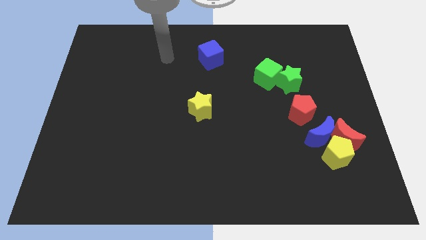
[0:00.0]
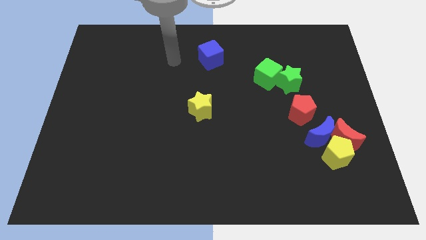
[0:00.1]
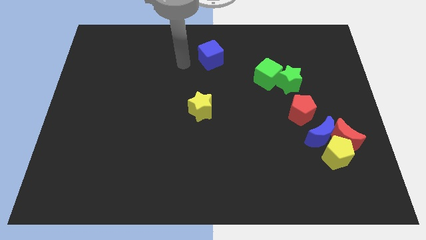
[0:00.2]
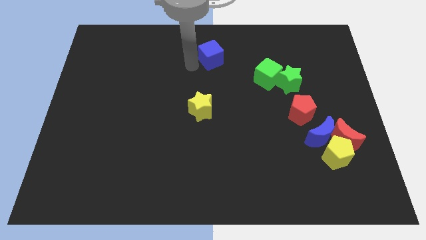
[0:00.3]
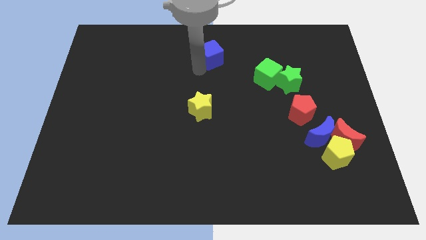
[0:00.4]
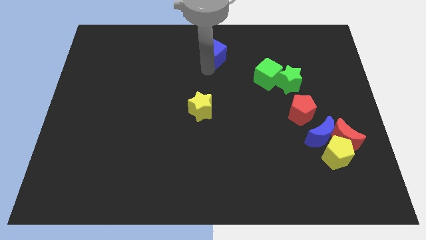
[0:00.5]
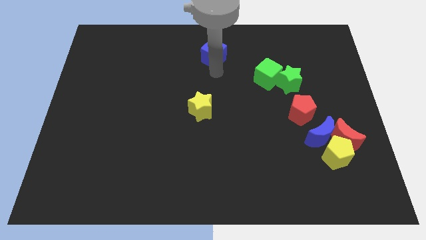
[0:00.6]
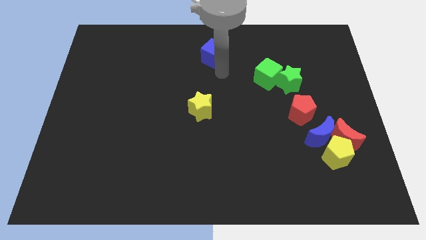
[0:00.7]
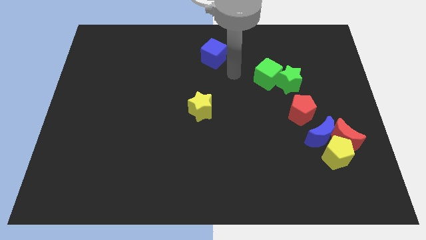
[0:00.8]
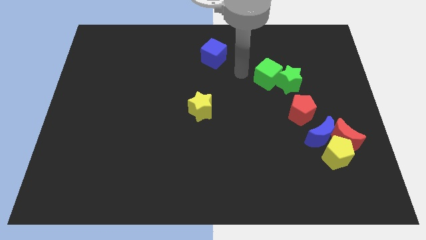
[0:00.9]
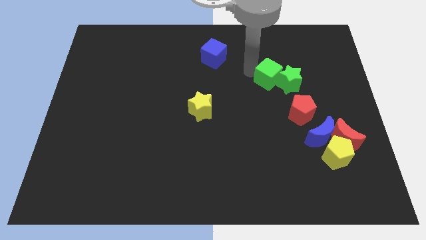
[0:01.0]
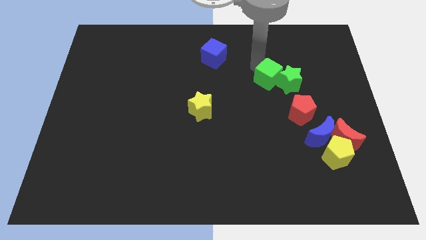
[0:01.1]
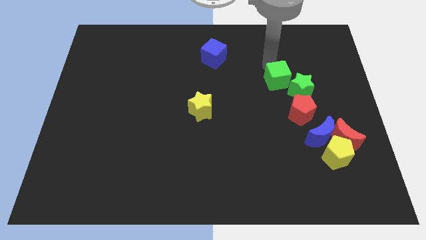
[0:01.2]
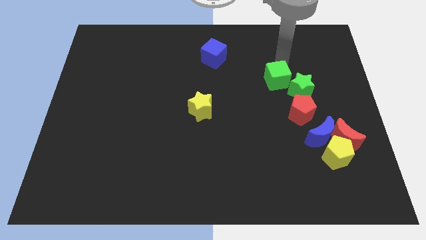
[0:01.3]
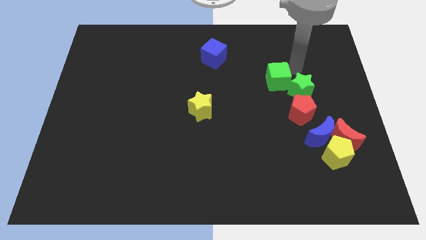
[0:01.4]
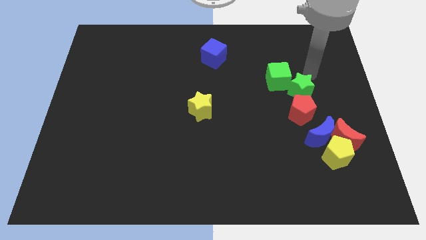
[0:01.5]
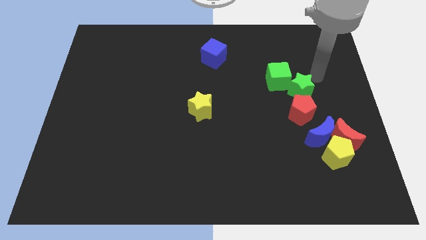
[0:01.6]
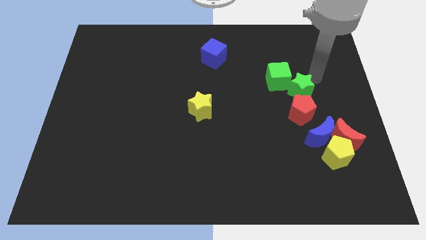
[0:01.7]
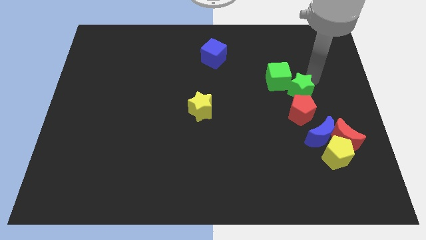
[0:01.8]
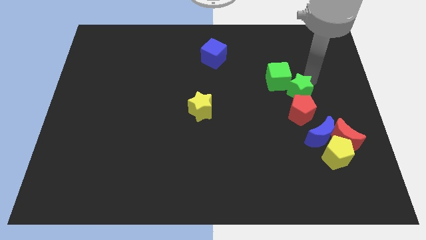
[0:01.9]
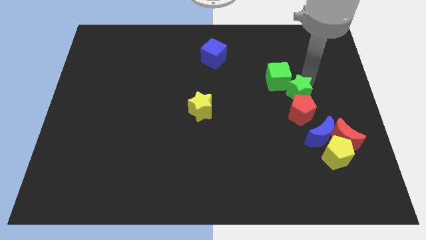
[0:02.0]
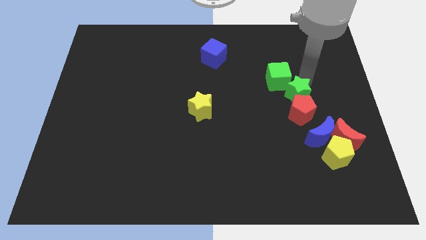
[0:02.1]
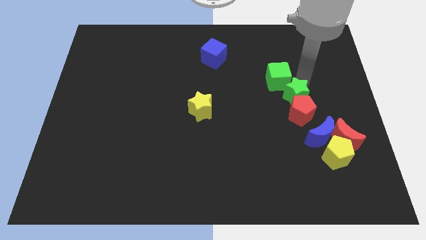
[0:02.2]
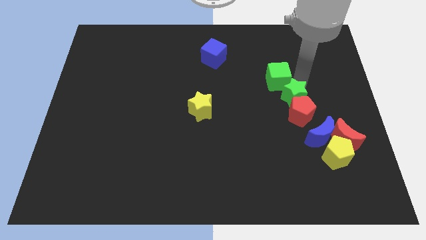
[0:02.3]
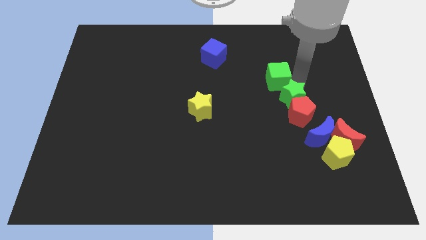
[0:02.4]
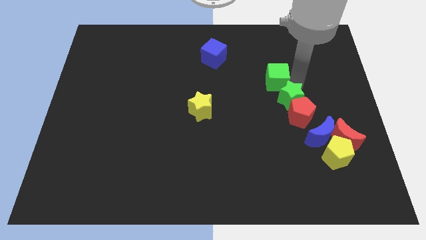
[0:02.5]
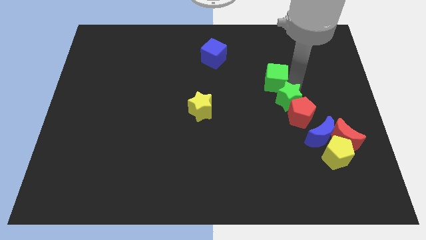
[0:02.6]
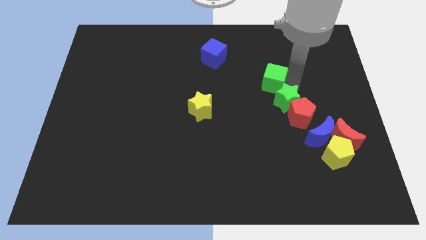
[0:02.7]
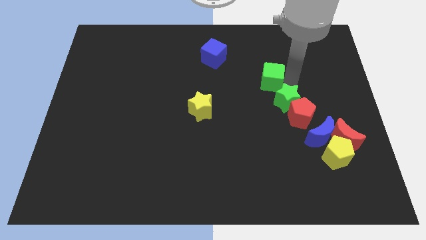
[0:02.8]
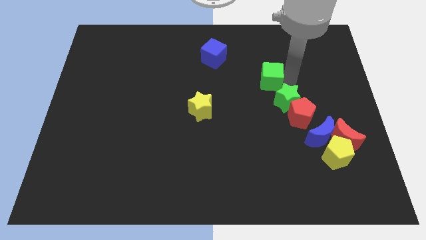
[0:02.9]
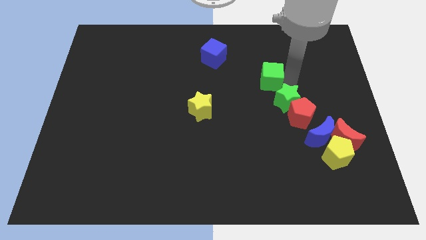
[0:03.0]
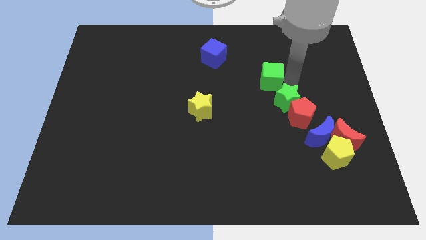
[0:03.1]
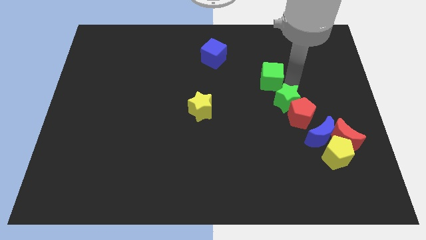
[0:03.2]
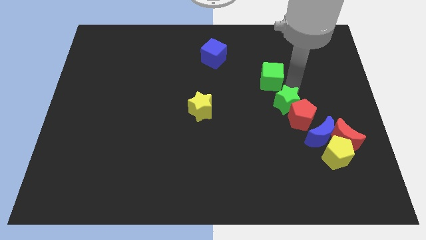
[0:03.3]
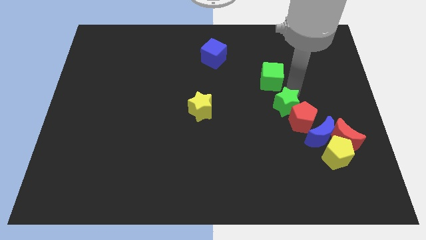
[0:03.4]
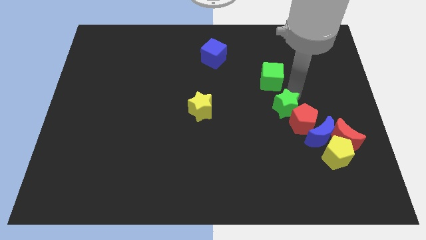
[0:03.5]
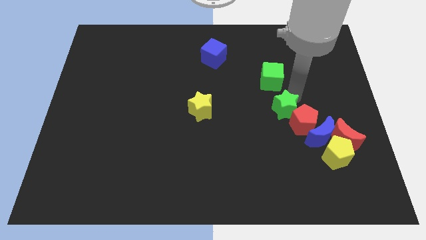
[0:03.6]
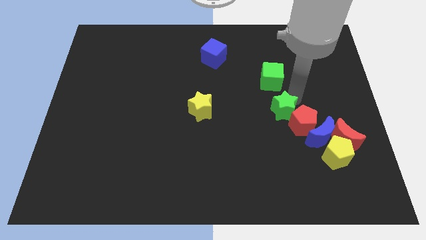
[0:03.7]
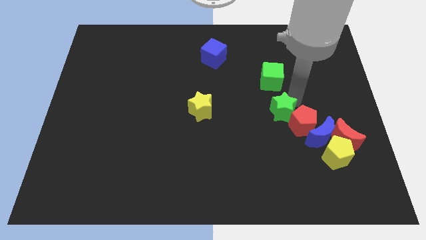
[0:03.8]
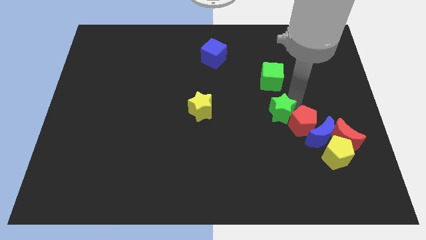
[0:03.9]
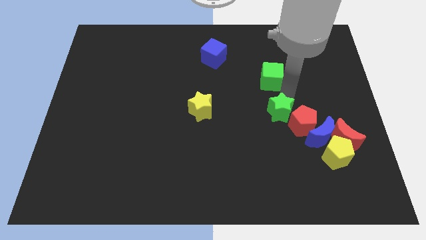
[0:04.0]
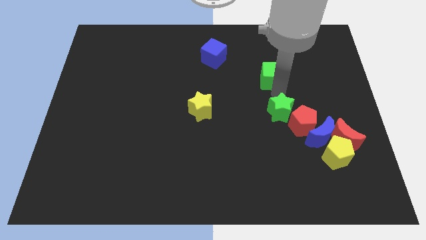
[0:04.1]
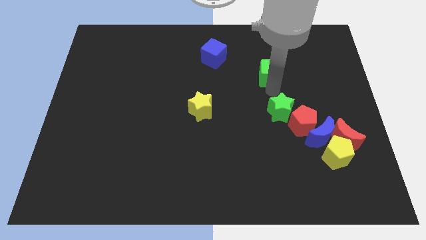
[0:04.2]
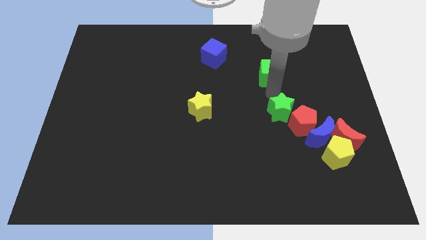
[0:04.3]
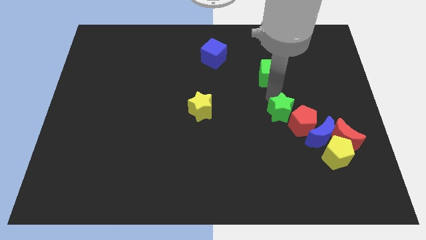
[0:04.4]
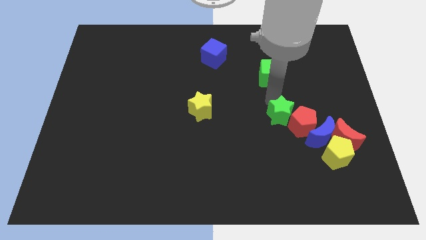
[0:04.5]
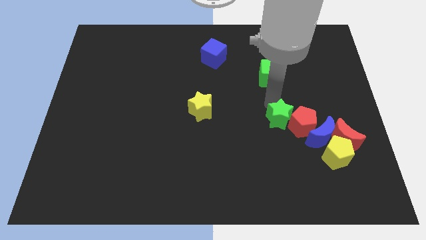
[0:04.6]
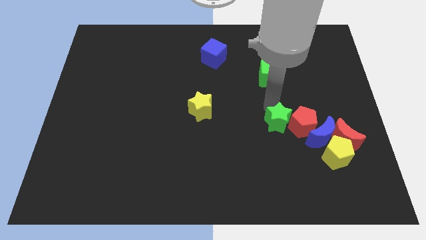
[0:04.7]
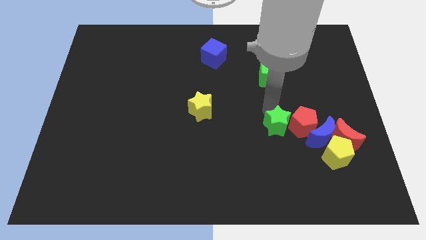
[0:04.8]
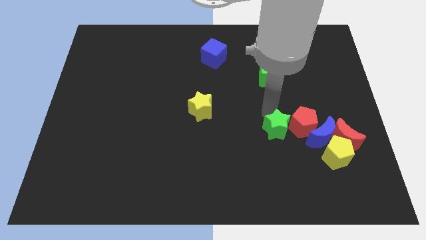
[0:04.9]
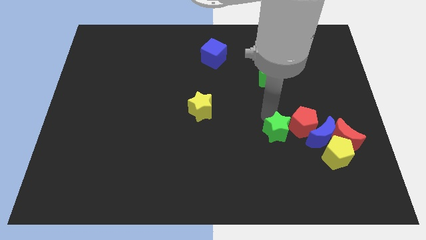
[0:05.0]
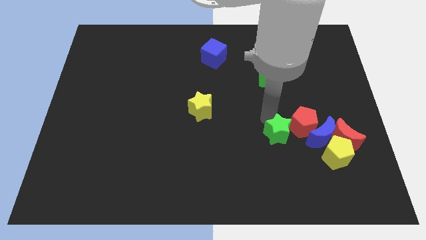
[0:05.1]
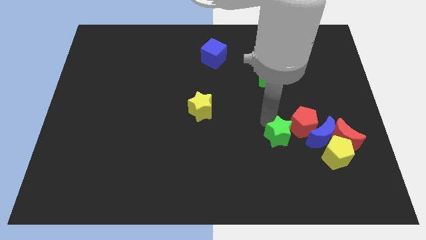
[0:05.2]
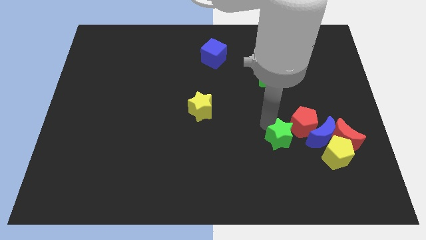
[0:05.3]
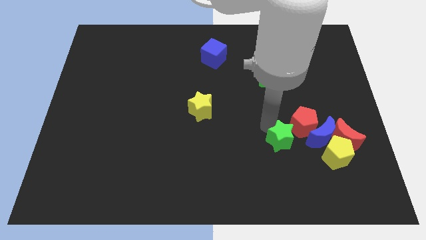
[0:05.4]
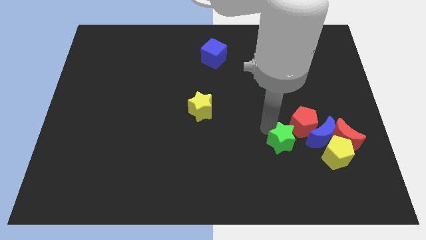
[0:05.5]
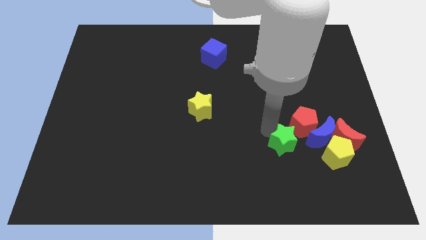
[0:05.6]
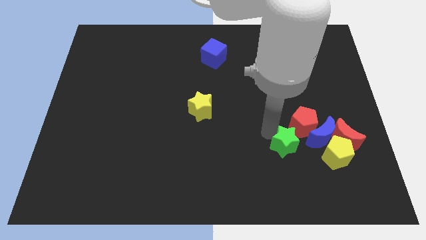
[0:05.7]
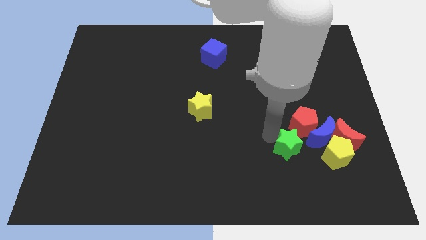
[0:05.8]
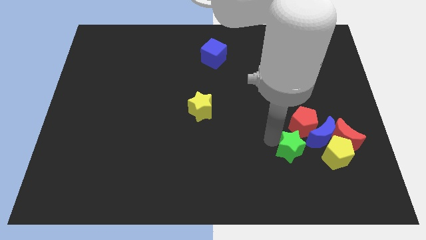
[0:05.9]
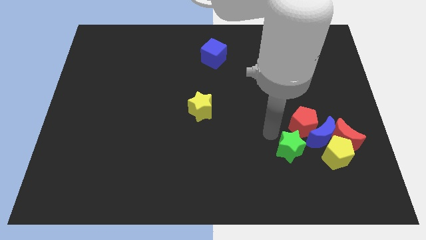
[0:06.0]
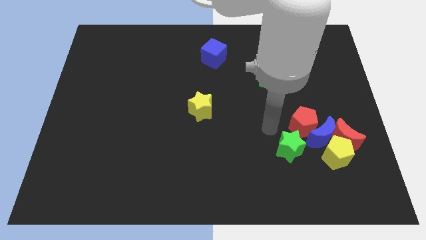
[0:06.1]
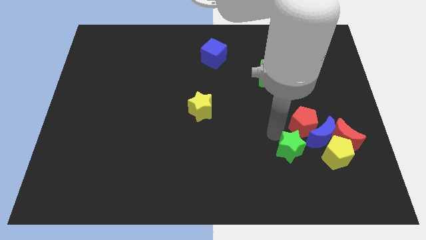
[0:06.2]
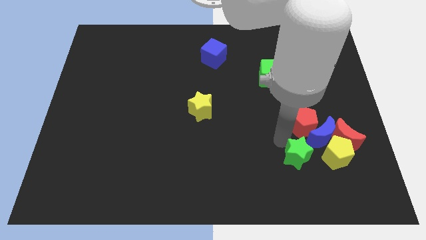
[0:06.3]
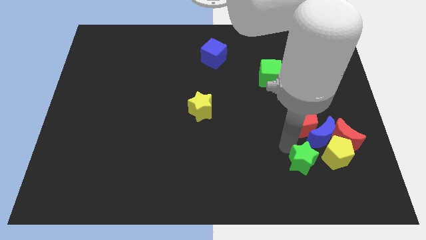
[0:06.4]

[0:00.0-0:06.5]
move the green star to the bottom left side of the yellow pentagon

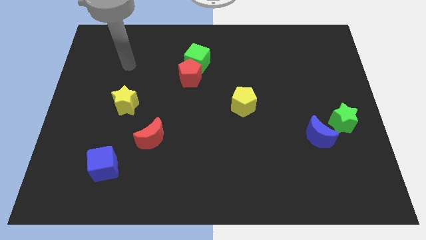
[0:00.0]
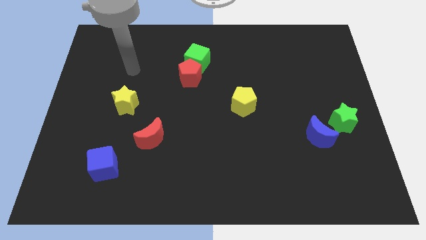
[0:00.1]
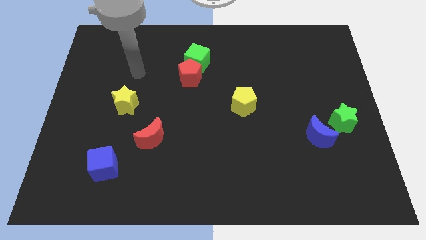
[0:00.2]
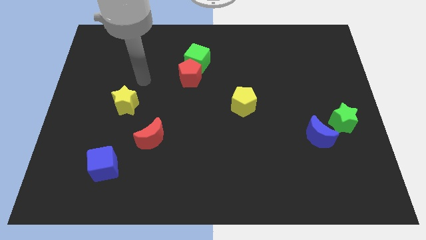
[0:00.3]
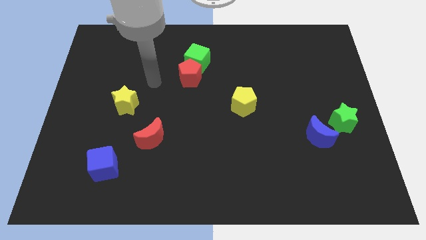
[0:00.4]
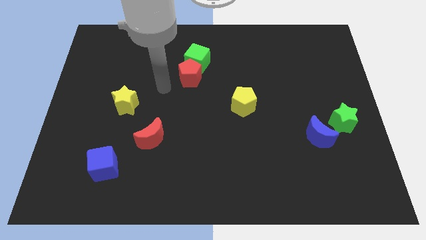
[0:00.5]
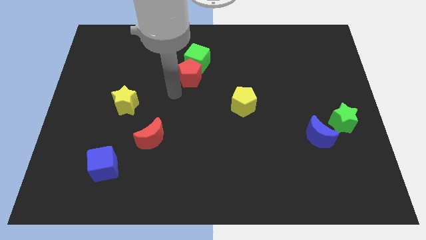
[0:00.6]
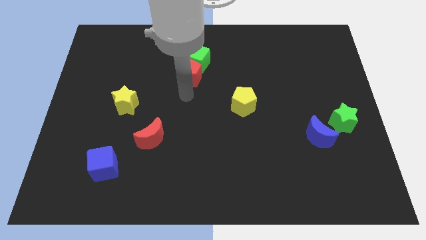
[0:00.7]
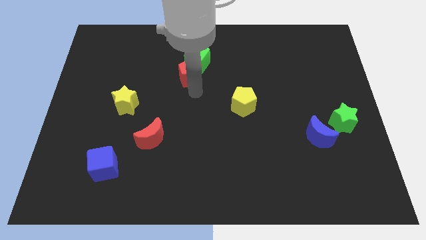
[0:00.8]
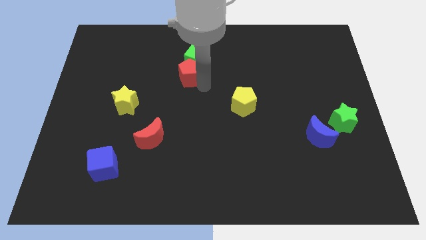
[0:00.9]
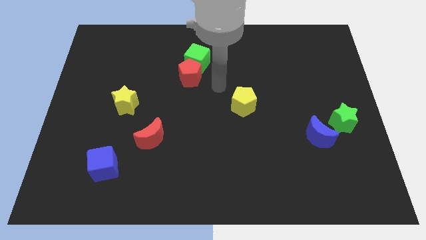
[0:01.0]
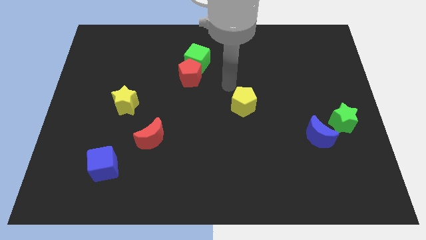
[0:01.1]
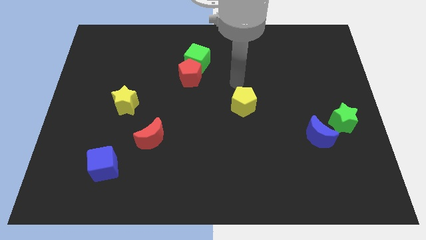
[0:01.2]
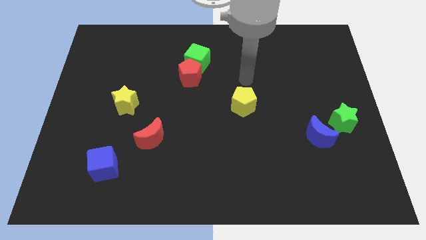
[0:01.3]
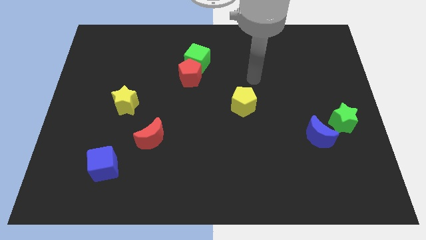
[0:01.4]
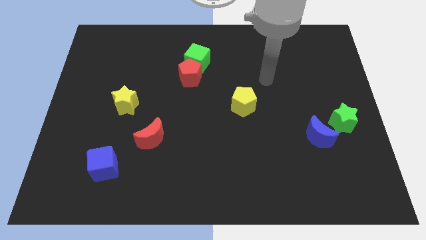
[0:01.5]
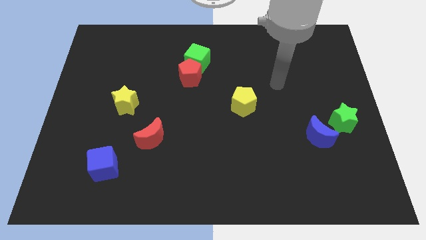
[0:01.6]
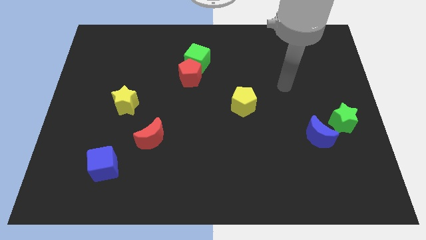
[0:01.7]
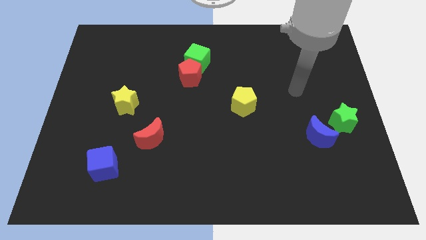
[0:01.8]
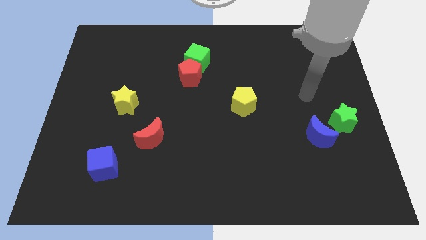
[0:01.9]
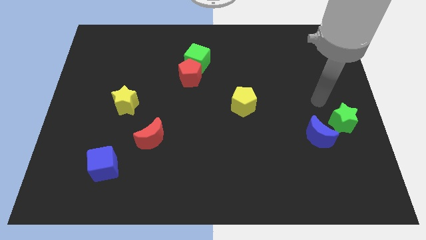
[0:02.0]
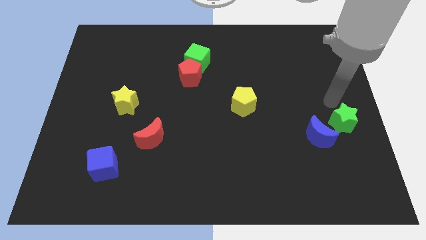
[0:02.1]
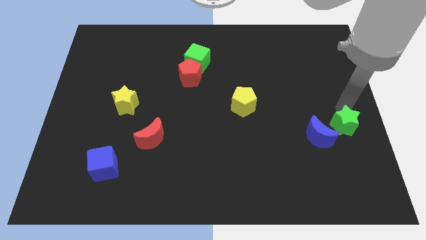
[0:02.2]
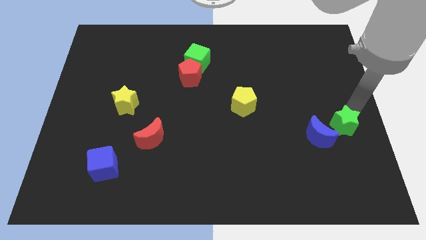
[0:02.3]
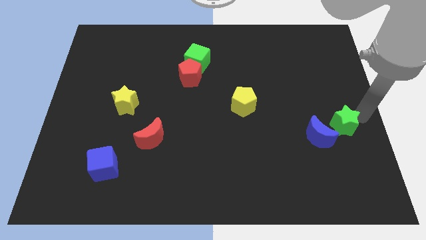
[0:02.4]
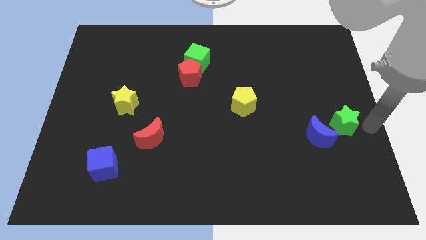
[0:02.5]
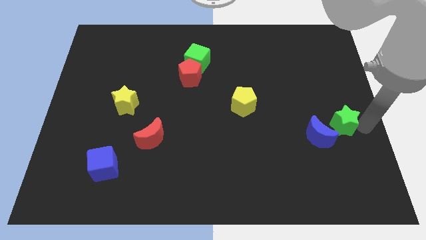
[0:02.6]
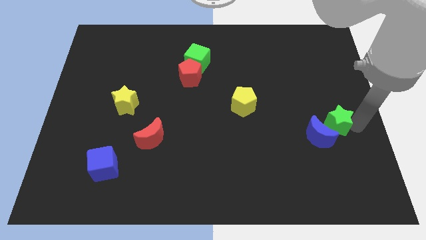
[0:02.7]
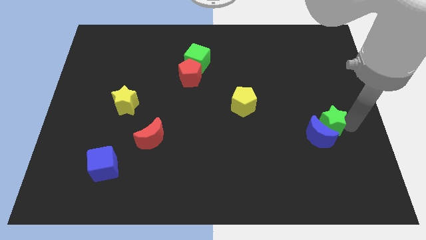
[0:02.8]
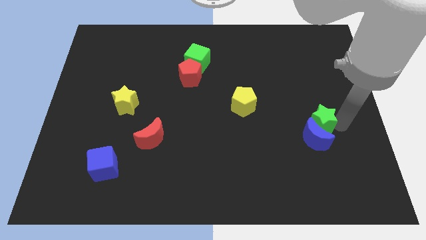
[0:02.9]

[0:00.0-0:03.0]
push the green star diagonally up and to the left of the blue moon
